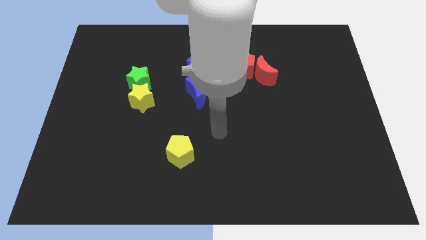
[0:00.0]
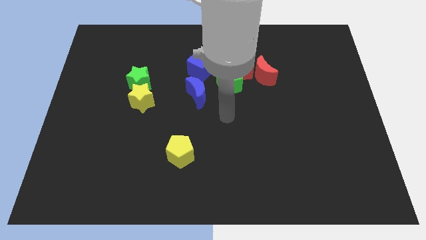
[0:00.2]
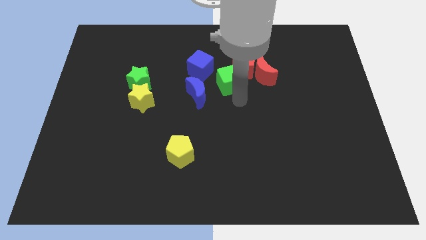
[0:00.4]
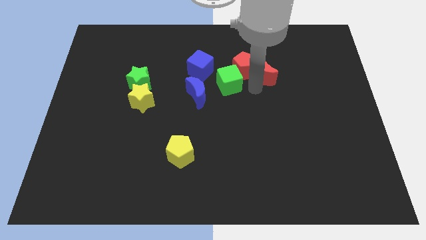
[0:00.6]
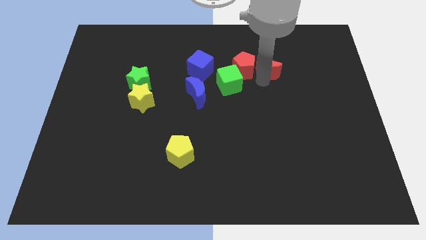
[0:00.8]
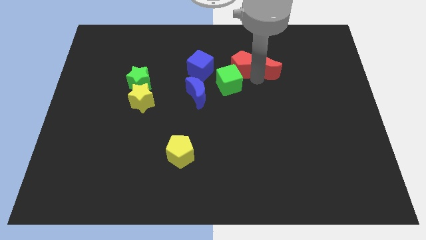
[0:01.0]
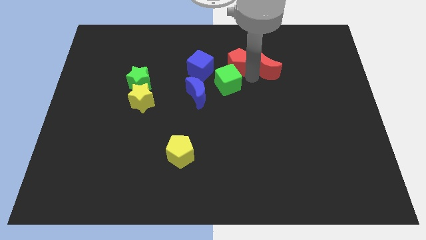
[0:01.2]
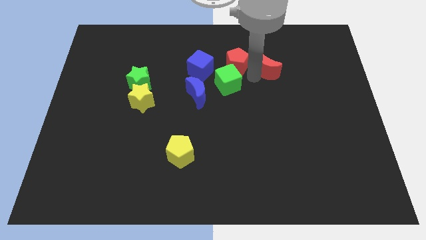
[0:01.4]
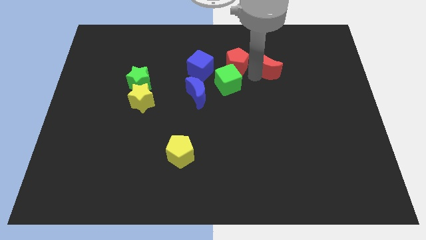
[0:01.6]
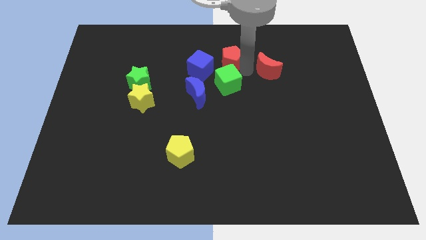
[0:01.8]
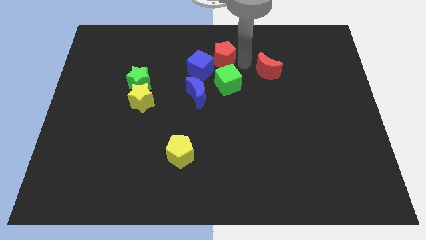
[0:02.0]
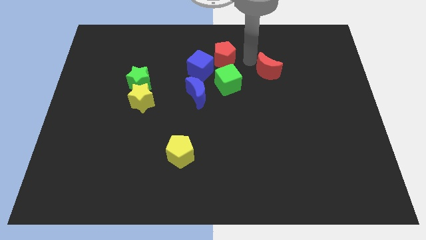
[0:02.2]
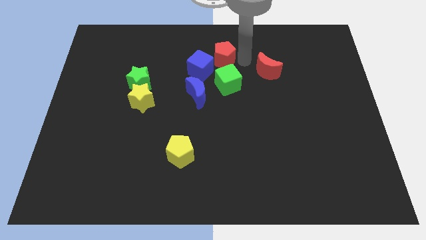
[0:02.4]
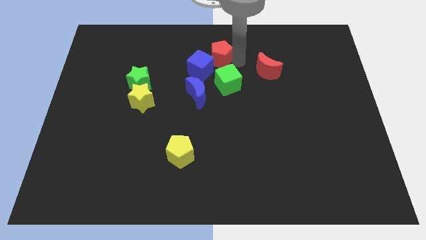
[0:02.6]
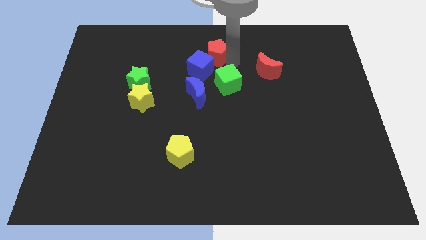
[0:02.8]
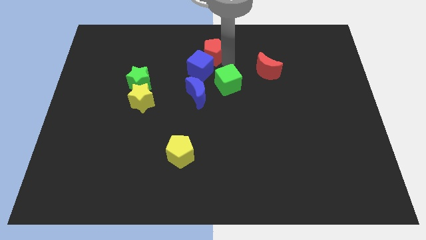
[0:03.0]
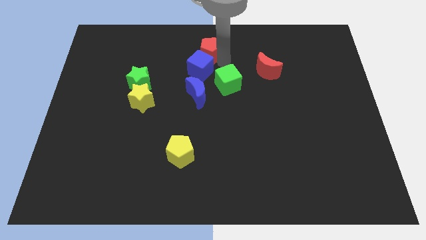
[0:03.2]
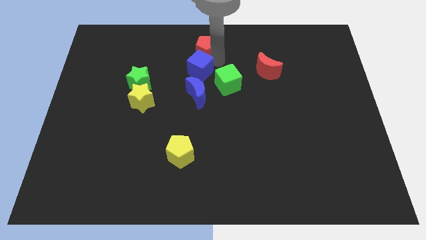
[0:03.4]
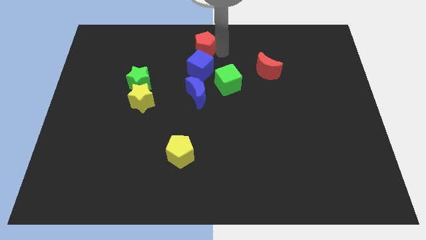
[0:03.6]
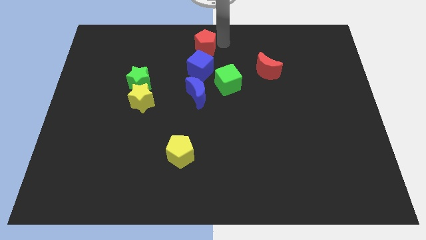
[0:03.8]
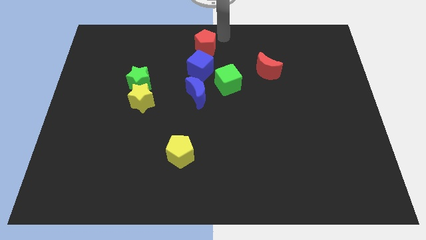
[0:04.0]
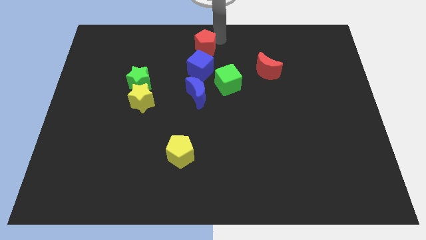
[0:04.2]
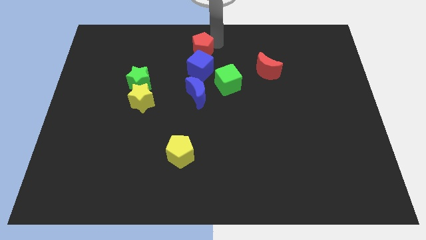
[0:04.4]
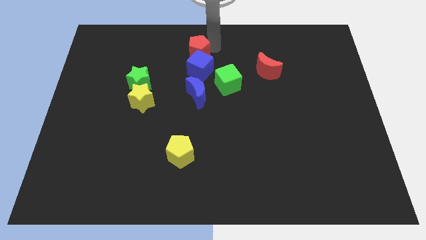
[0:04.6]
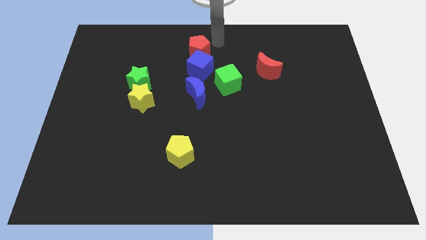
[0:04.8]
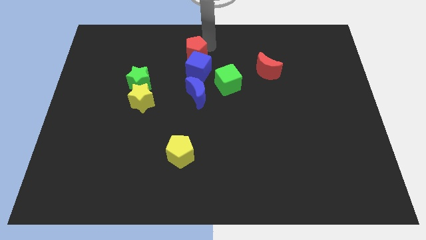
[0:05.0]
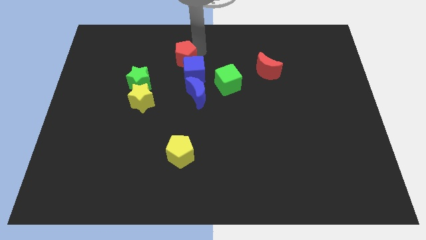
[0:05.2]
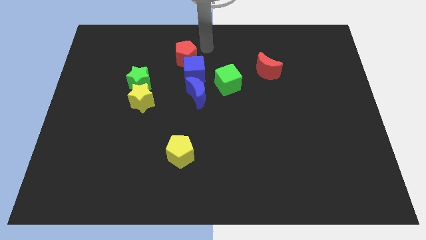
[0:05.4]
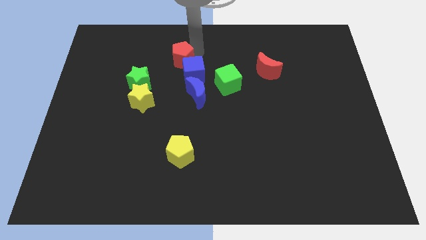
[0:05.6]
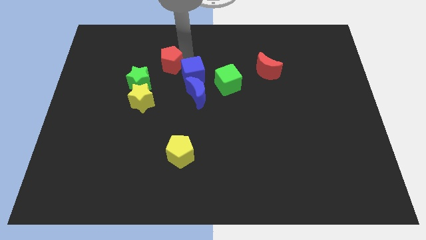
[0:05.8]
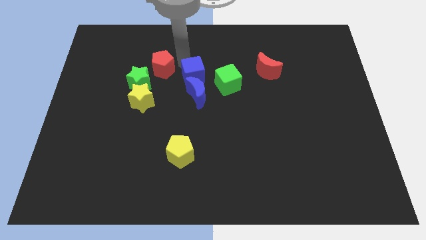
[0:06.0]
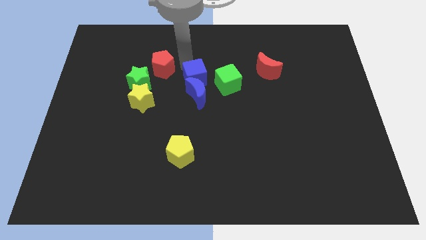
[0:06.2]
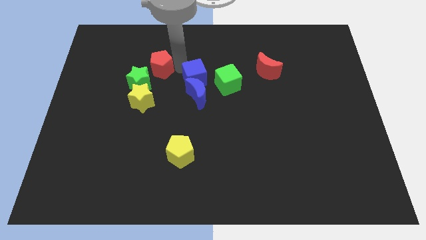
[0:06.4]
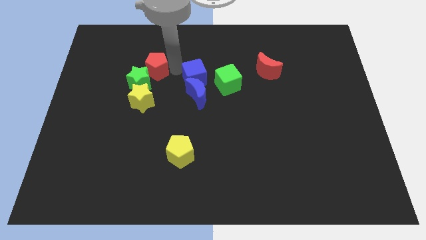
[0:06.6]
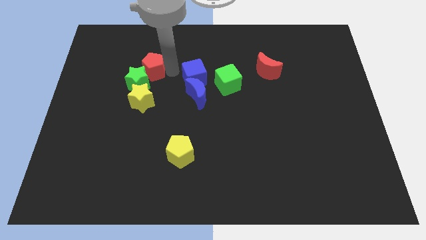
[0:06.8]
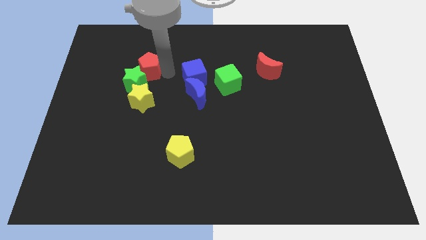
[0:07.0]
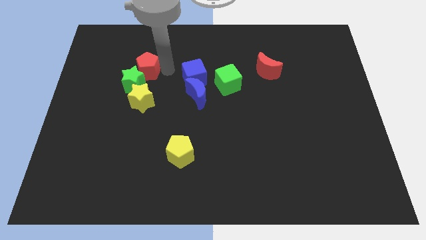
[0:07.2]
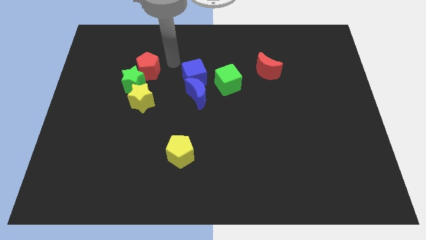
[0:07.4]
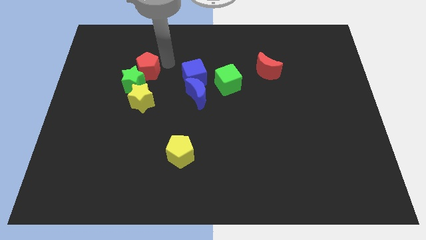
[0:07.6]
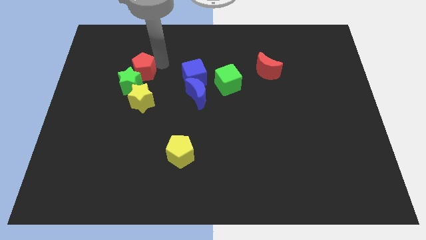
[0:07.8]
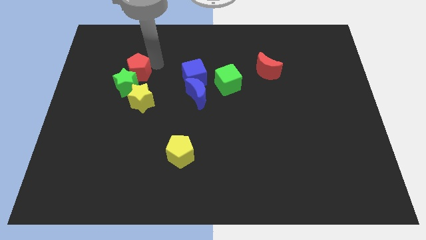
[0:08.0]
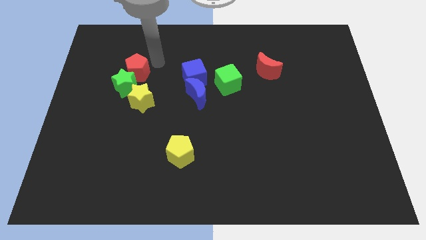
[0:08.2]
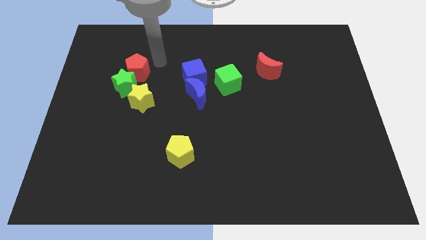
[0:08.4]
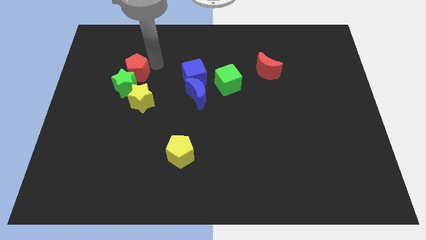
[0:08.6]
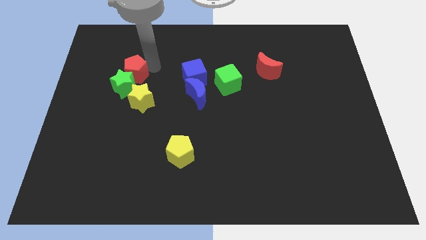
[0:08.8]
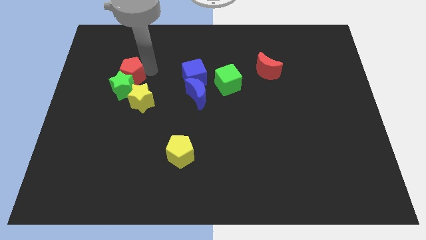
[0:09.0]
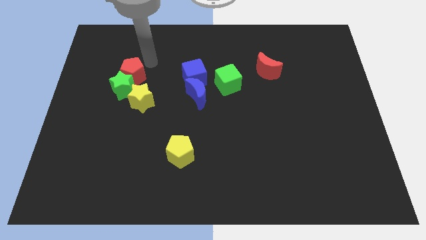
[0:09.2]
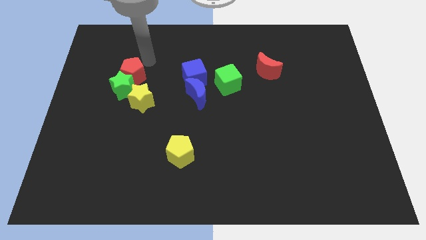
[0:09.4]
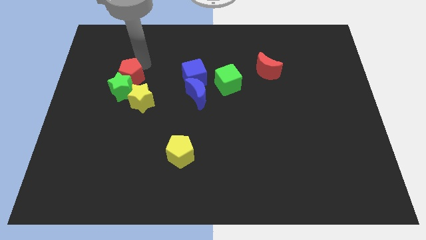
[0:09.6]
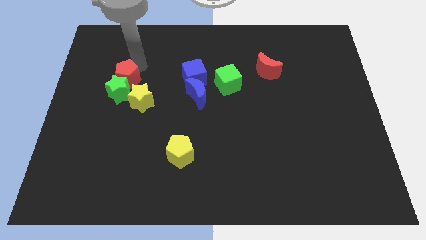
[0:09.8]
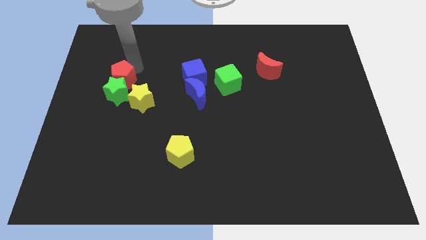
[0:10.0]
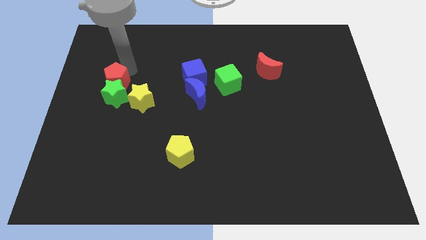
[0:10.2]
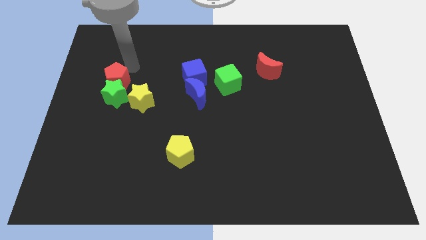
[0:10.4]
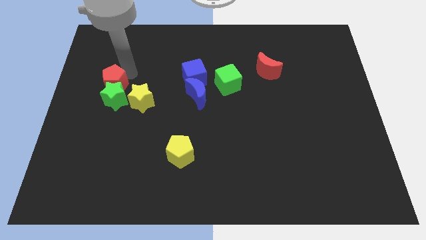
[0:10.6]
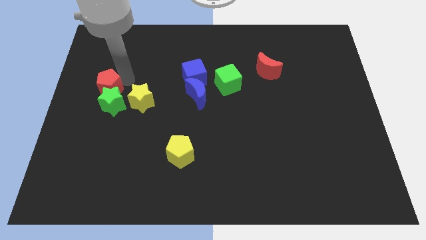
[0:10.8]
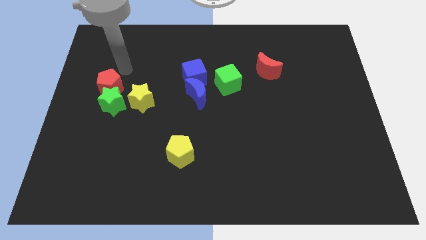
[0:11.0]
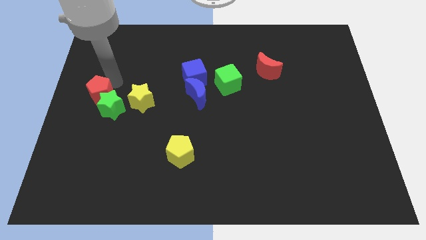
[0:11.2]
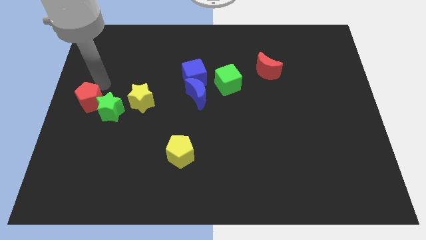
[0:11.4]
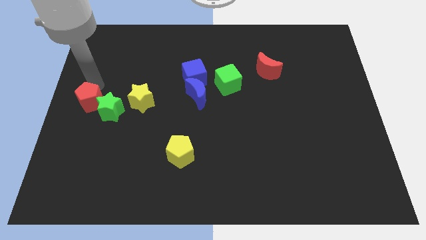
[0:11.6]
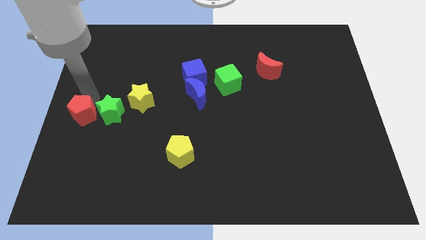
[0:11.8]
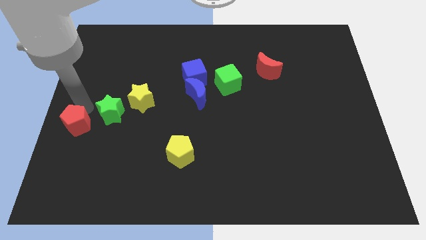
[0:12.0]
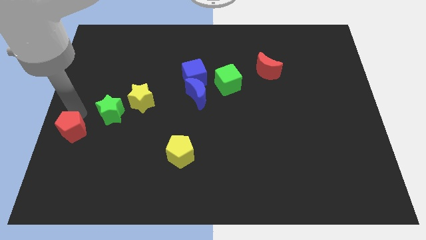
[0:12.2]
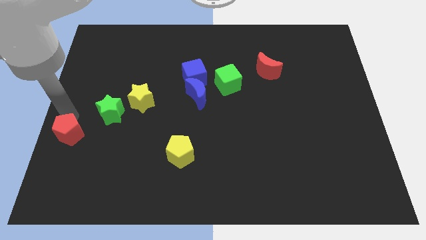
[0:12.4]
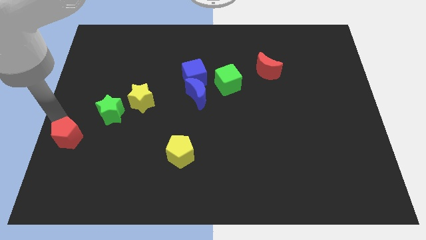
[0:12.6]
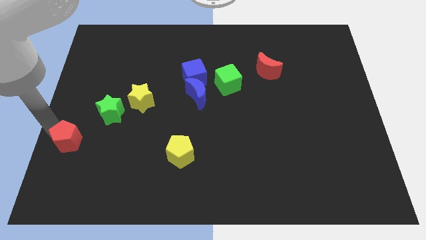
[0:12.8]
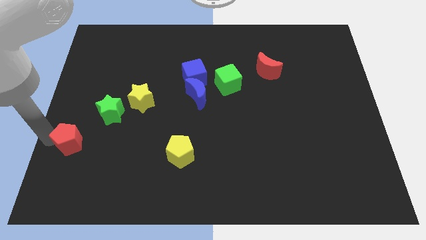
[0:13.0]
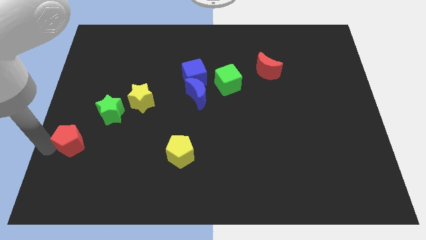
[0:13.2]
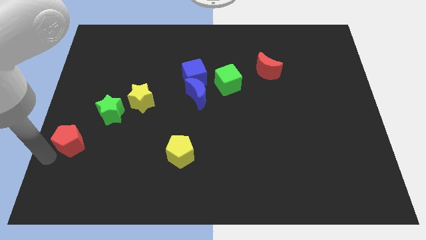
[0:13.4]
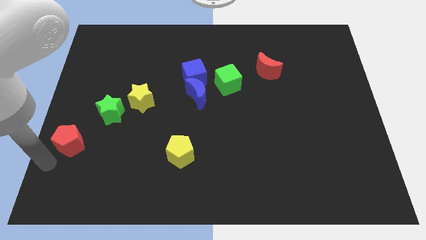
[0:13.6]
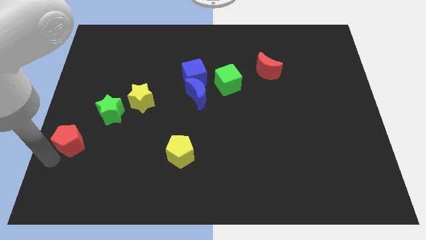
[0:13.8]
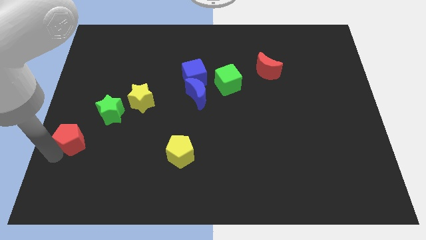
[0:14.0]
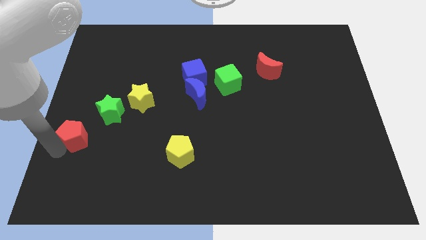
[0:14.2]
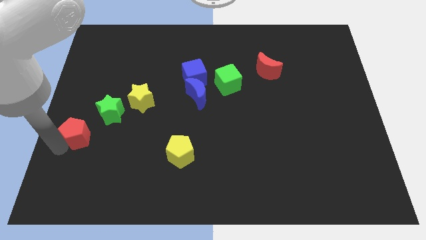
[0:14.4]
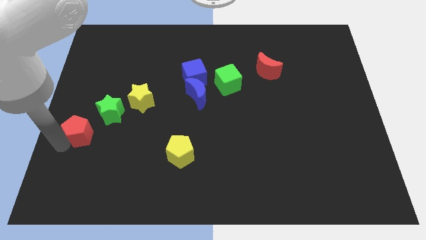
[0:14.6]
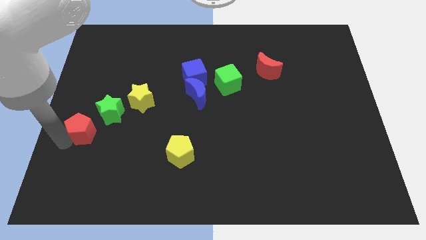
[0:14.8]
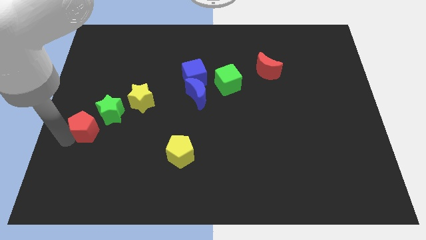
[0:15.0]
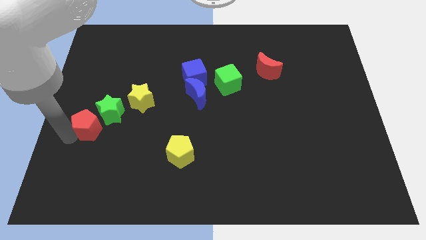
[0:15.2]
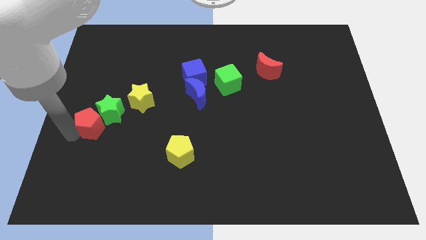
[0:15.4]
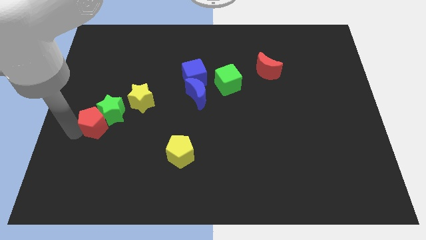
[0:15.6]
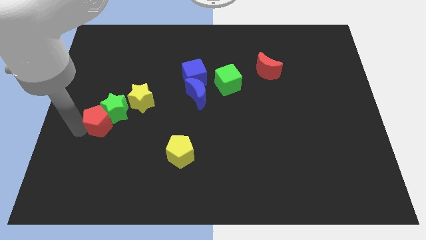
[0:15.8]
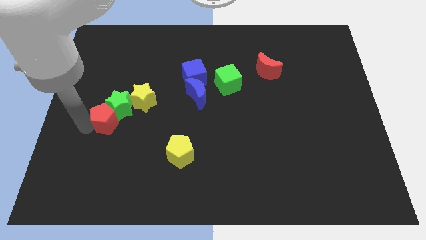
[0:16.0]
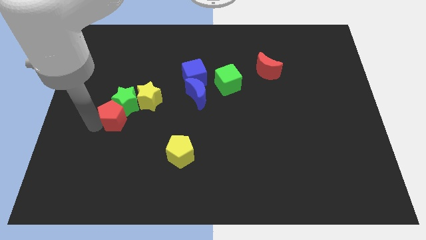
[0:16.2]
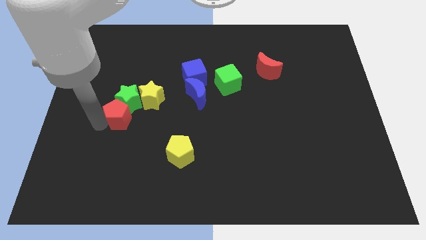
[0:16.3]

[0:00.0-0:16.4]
slide the red pentagon to the bottom left side of the green star
